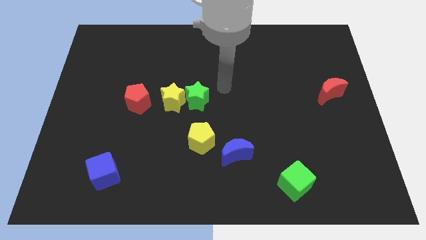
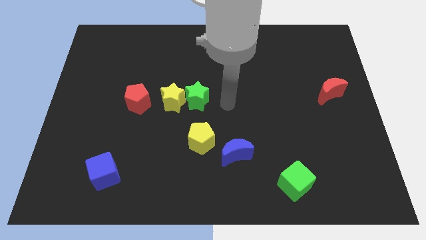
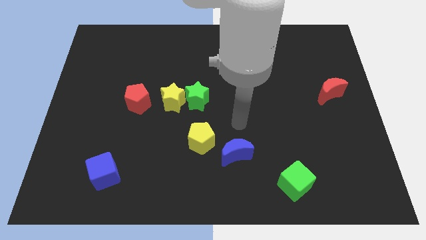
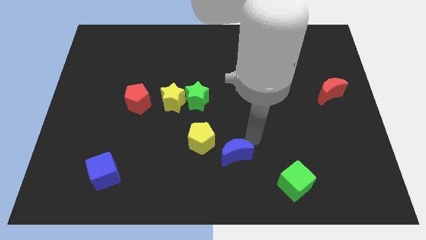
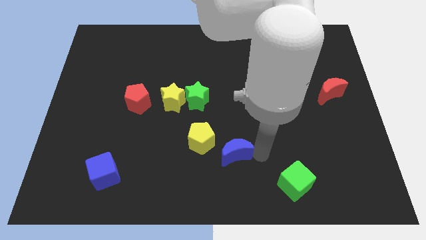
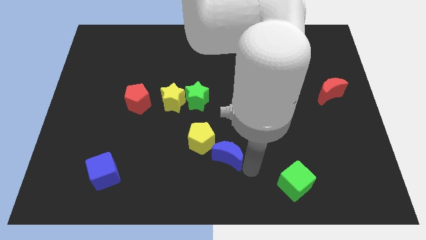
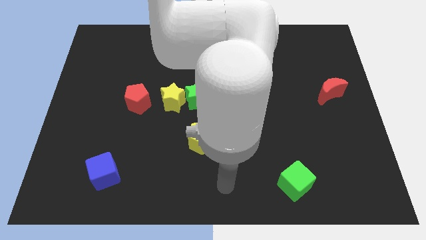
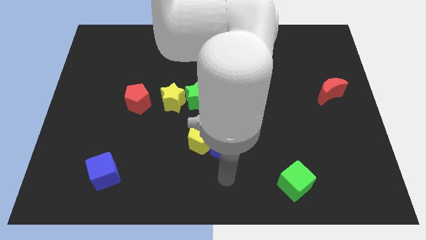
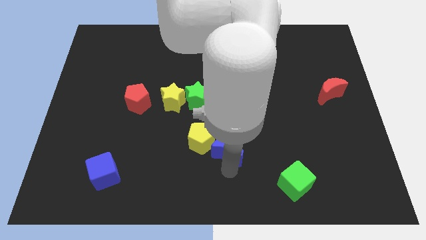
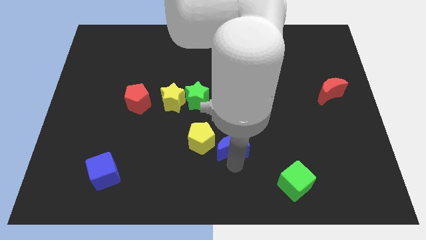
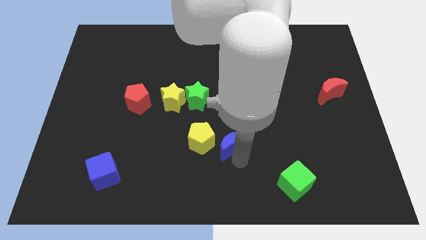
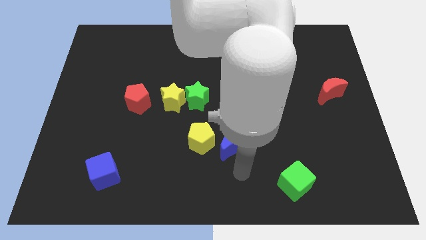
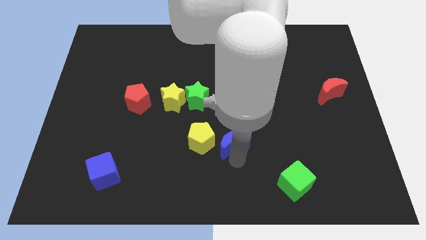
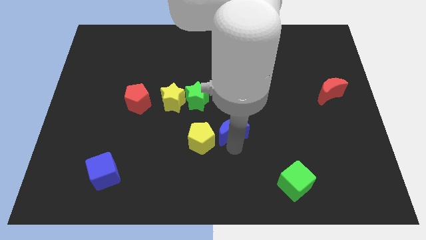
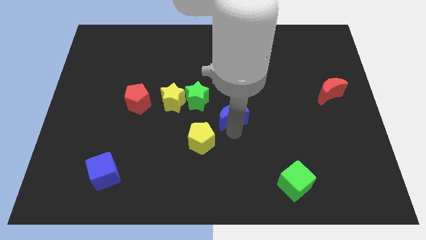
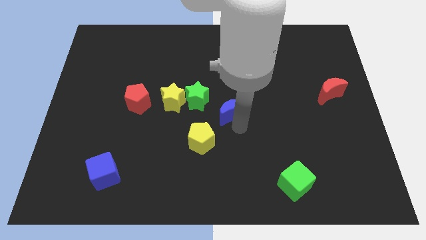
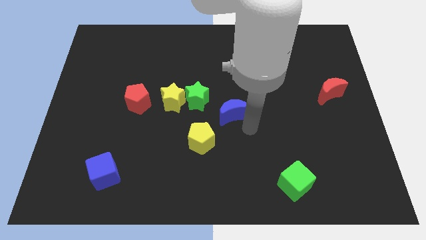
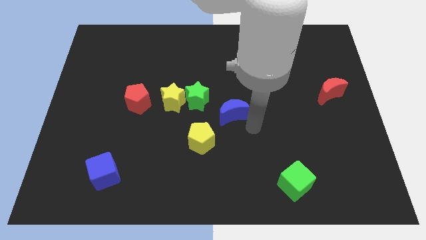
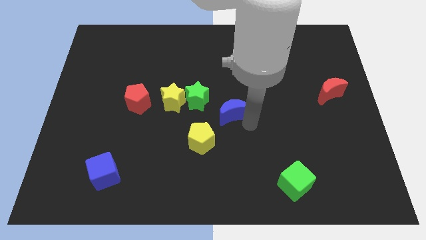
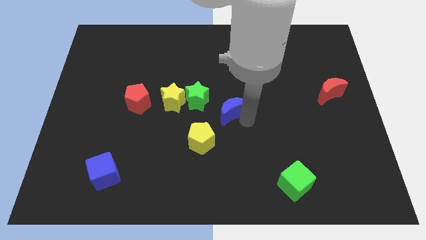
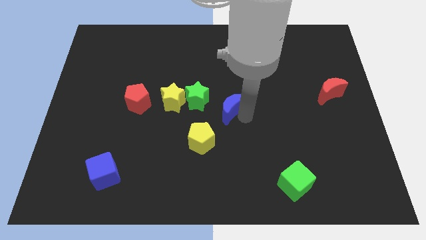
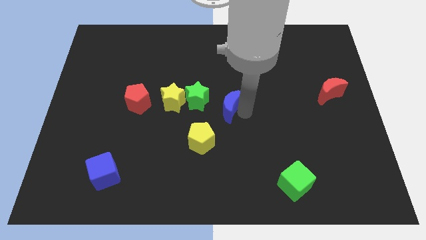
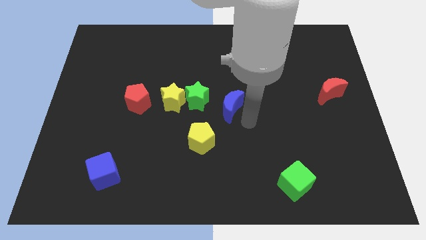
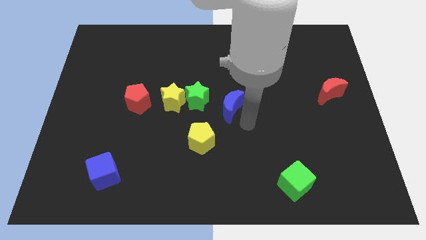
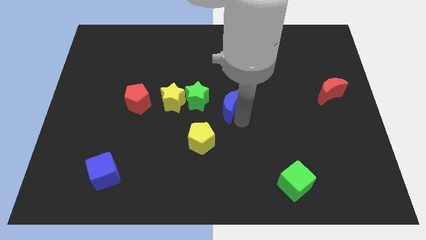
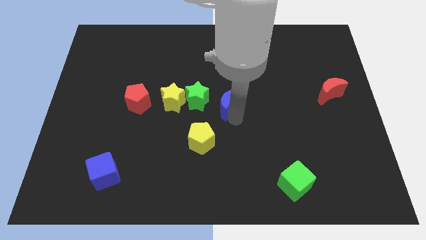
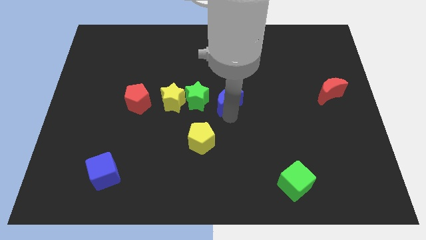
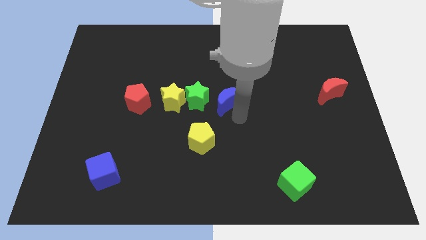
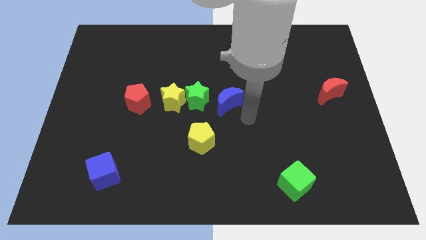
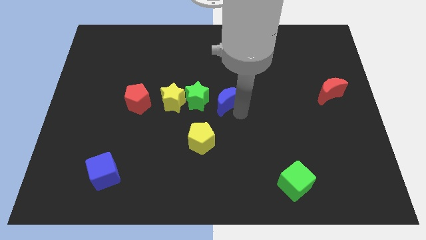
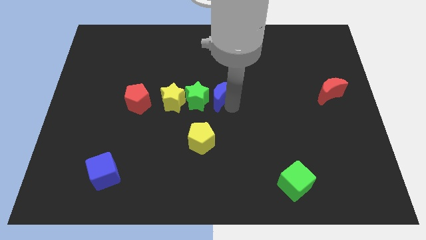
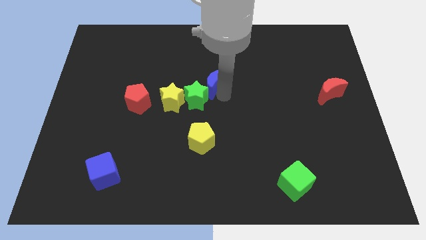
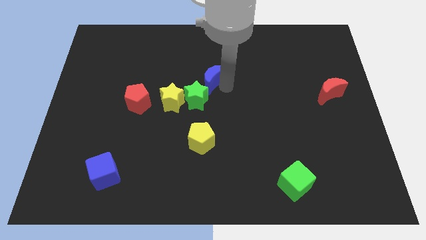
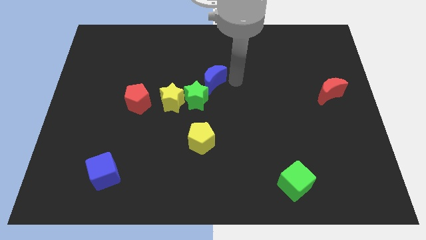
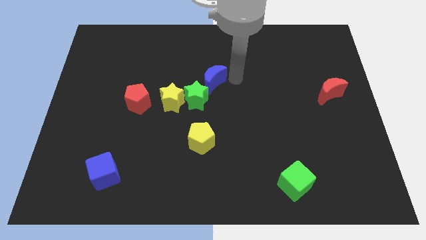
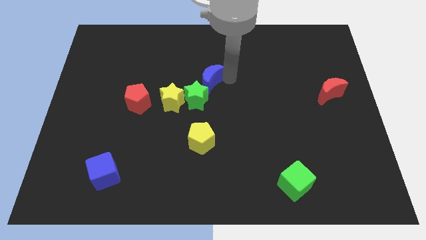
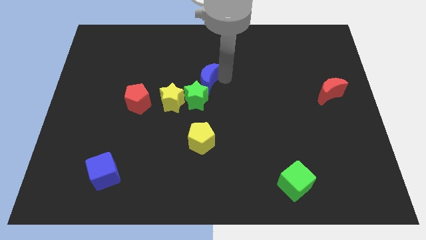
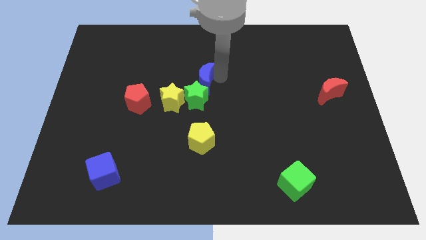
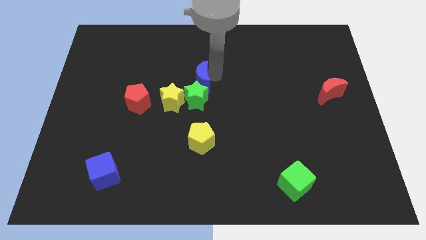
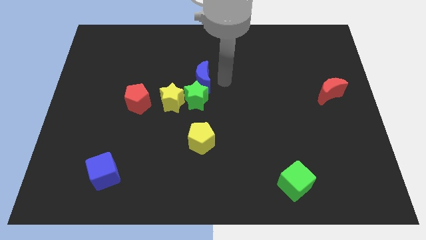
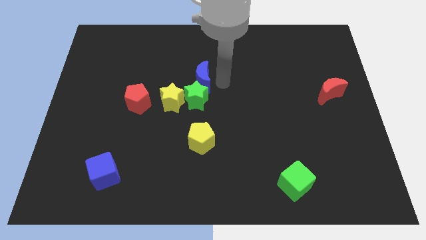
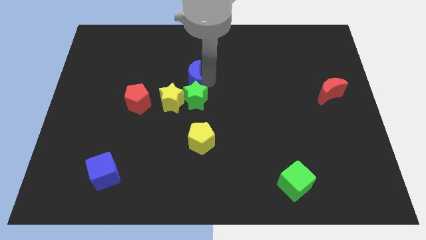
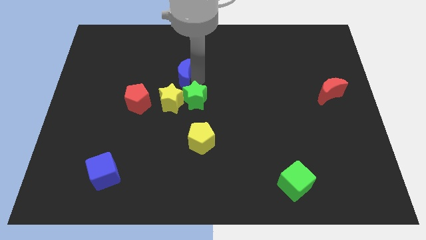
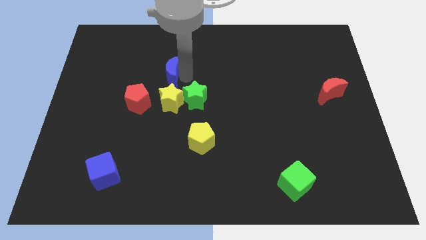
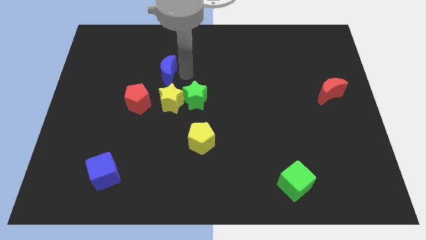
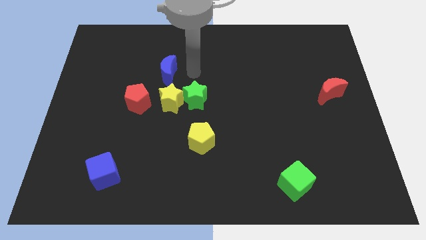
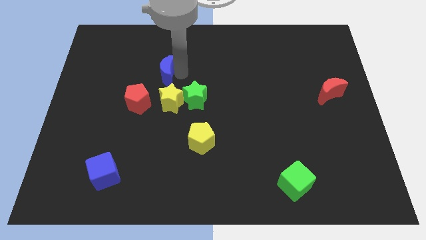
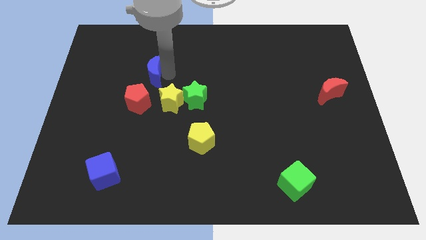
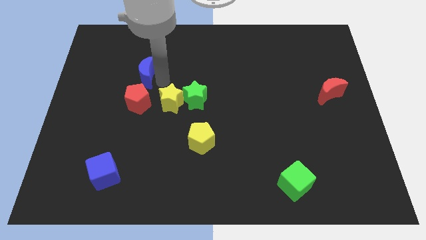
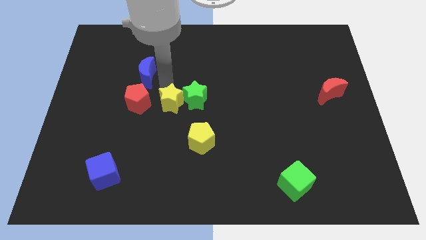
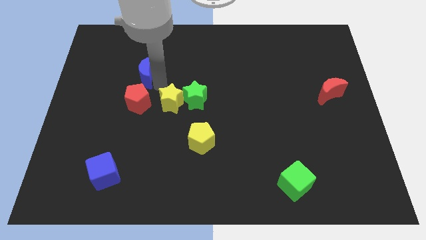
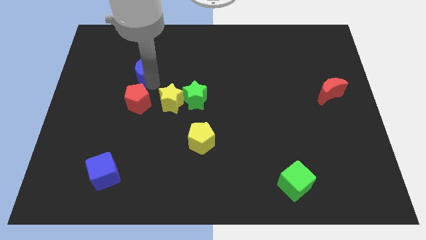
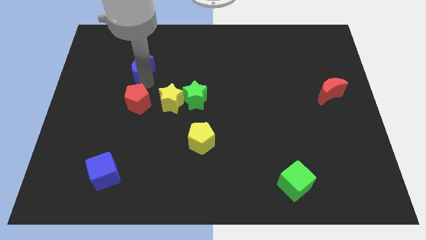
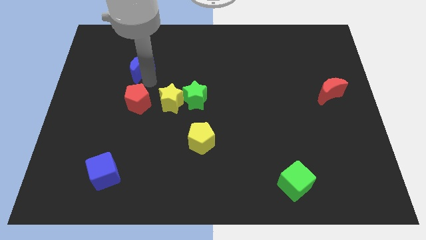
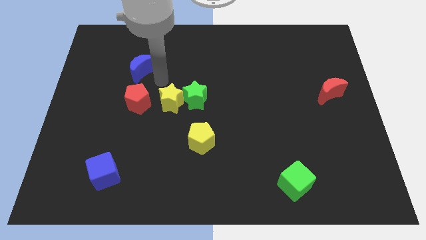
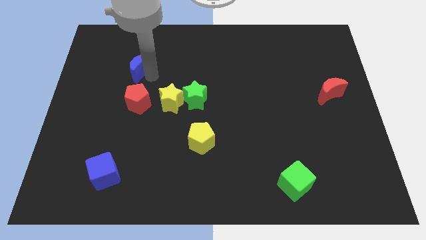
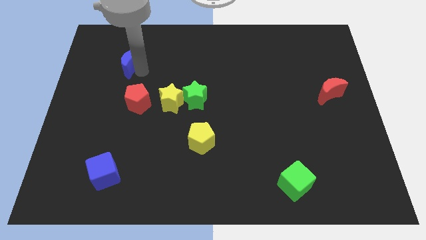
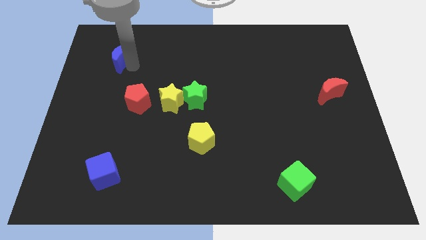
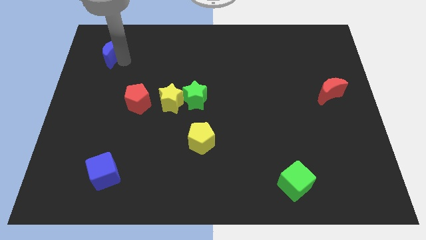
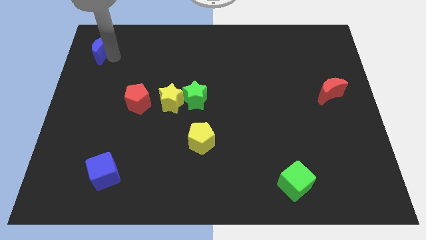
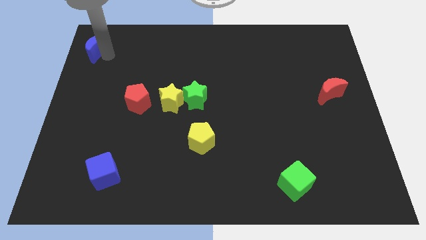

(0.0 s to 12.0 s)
move the blue moon to the top left of the board
